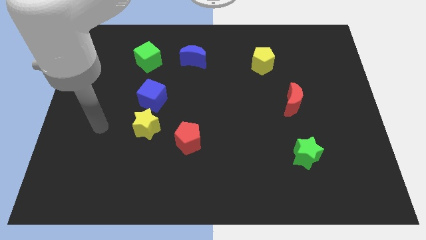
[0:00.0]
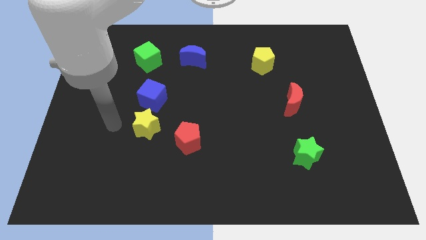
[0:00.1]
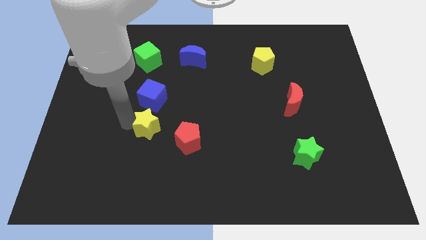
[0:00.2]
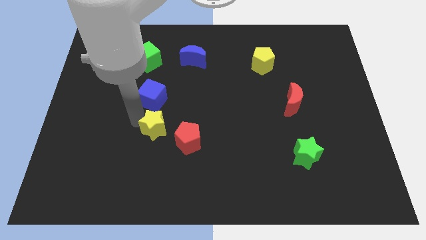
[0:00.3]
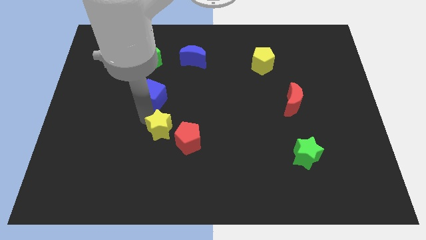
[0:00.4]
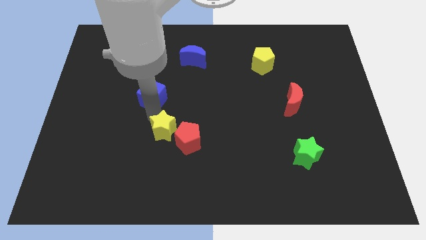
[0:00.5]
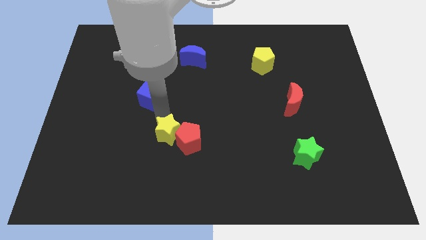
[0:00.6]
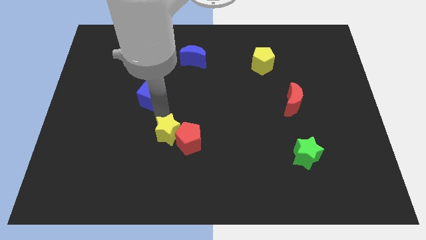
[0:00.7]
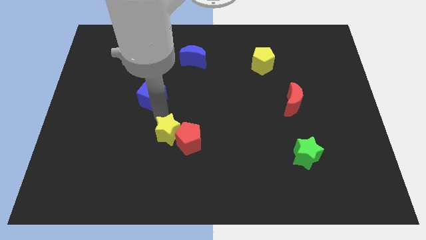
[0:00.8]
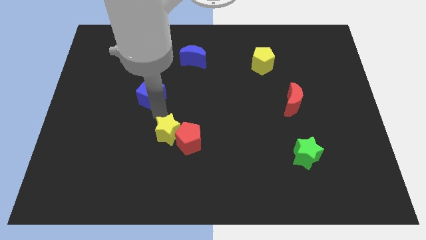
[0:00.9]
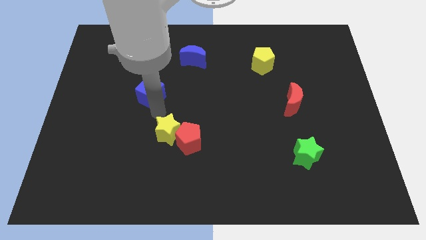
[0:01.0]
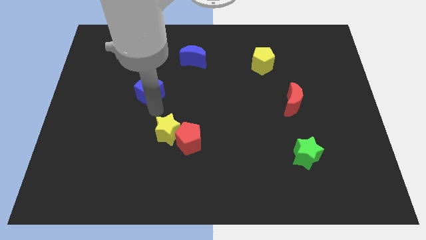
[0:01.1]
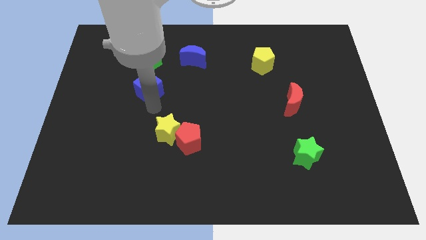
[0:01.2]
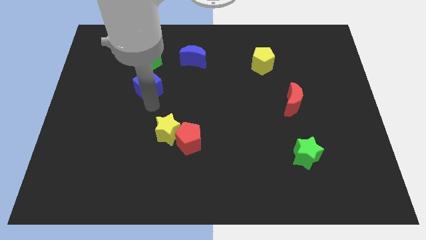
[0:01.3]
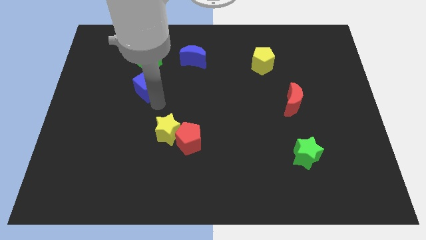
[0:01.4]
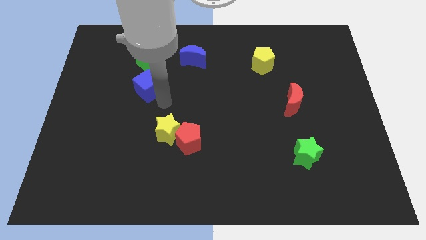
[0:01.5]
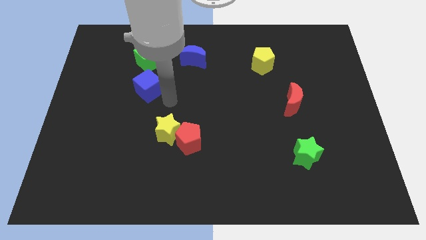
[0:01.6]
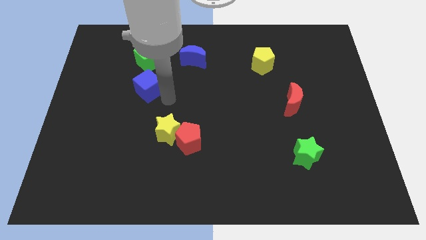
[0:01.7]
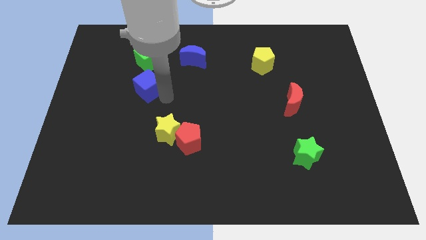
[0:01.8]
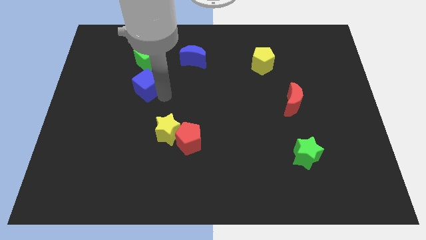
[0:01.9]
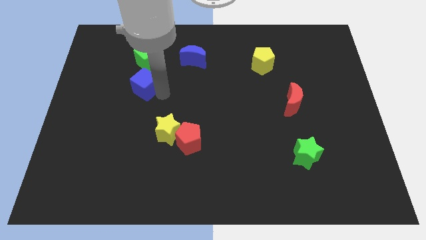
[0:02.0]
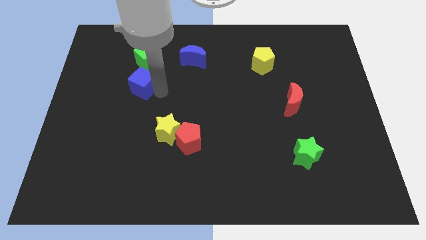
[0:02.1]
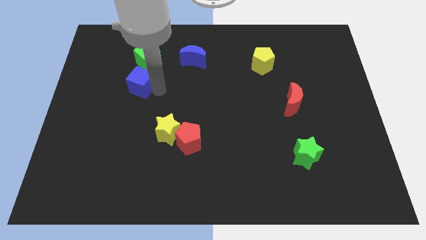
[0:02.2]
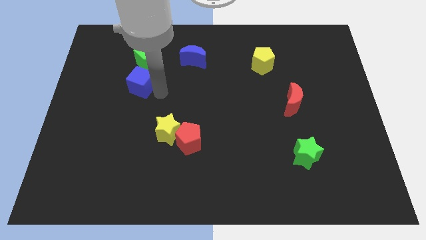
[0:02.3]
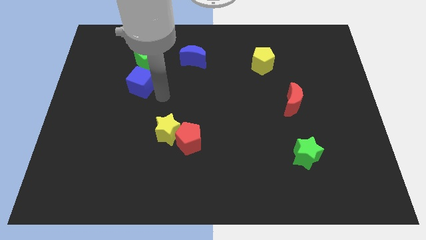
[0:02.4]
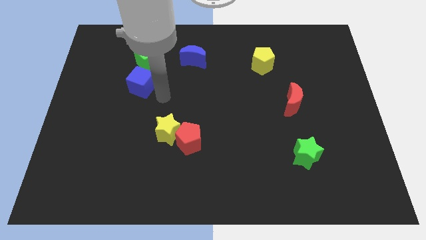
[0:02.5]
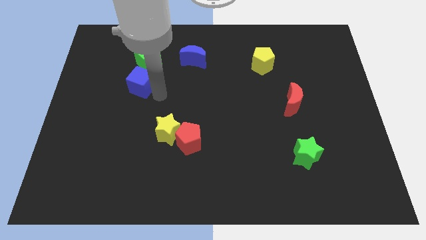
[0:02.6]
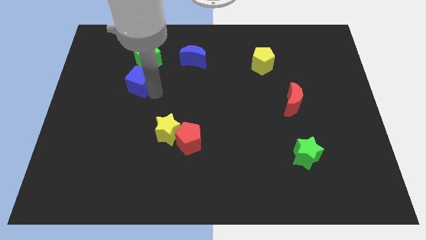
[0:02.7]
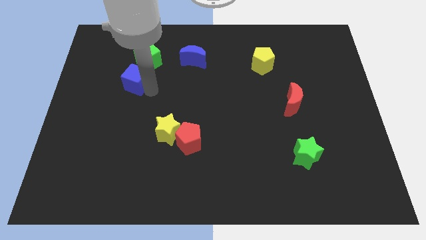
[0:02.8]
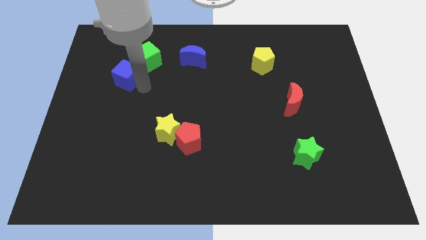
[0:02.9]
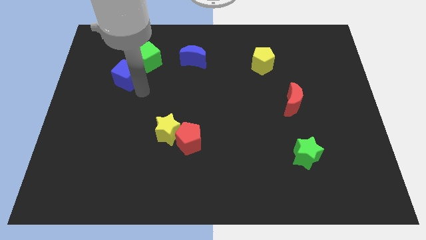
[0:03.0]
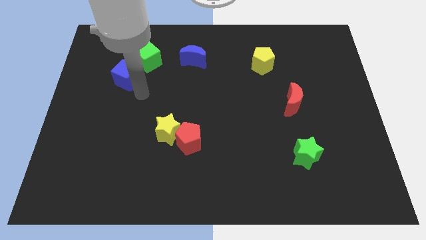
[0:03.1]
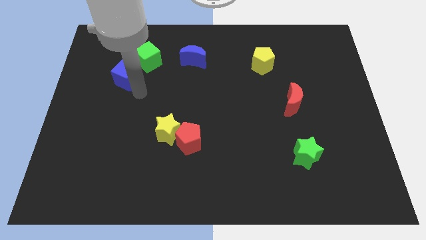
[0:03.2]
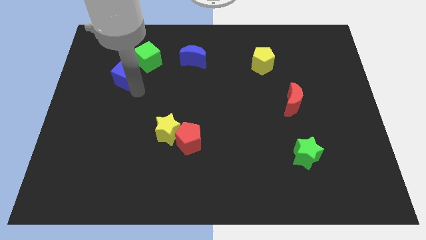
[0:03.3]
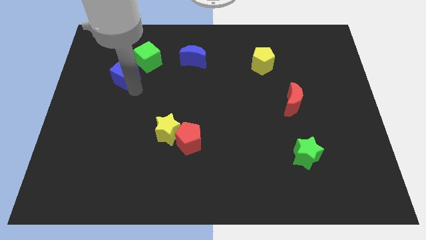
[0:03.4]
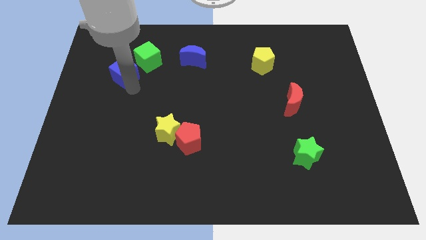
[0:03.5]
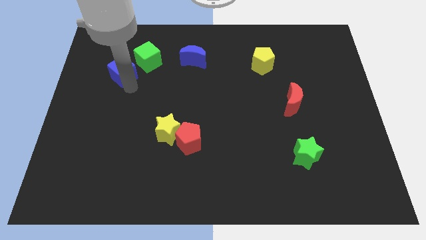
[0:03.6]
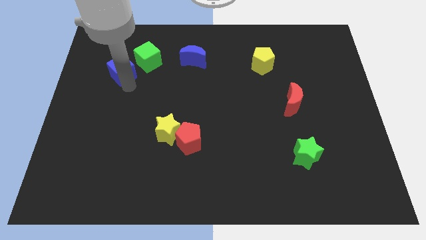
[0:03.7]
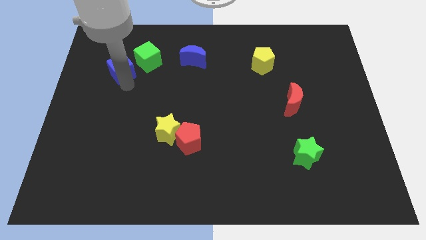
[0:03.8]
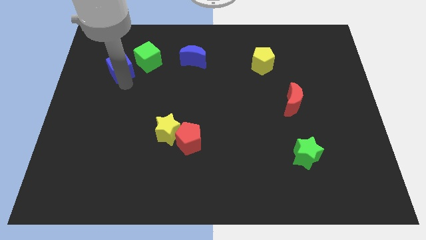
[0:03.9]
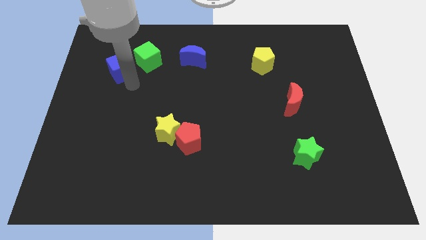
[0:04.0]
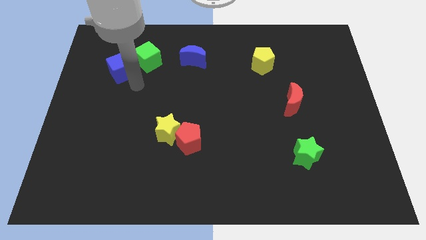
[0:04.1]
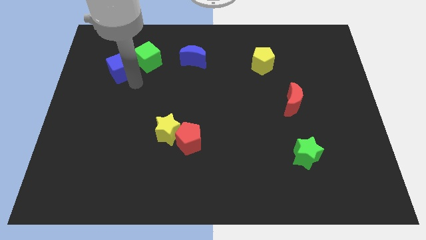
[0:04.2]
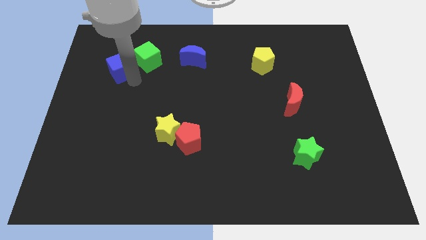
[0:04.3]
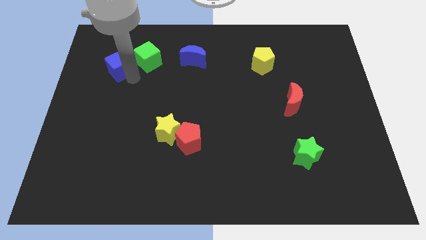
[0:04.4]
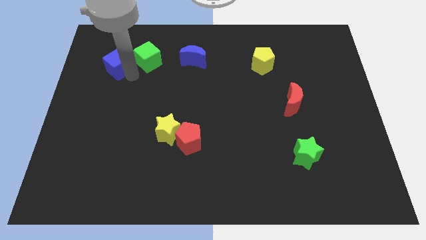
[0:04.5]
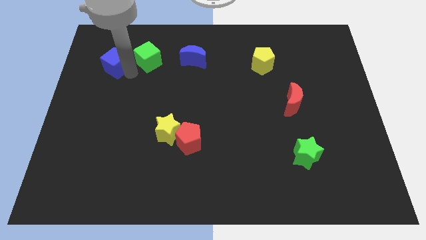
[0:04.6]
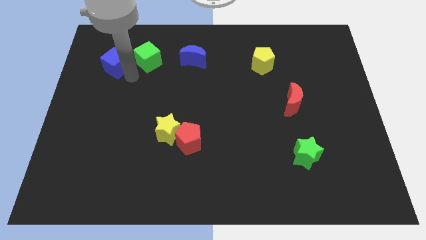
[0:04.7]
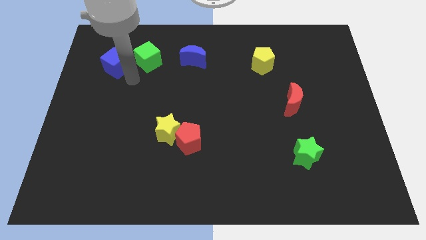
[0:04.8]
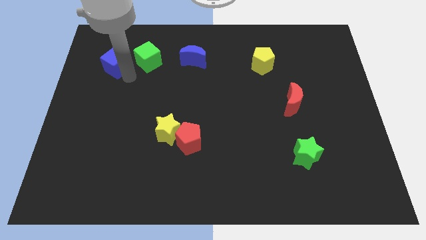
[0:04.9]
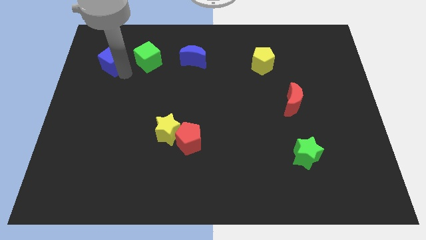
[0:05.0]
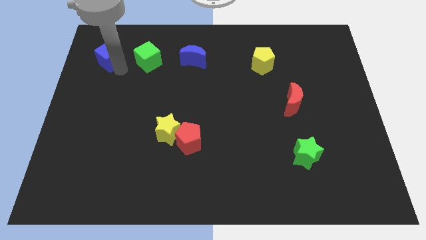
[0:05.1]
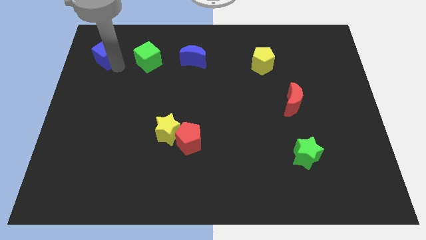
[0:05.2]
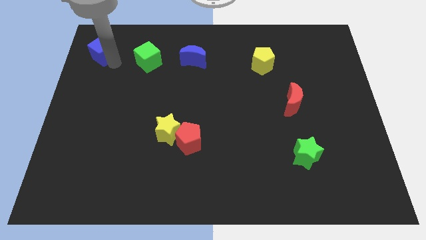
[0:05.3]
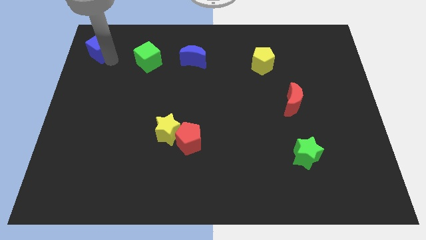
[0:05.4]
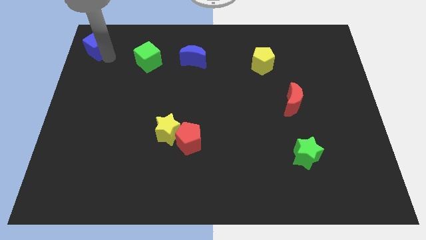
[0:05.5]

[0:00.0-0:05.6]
push the blue cube to the upper left corner

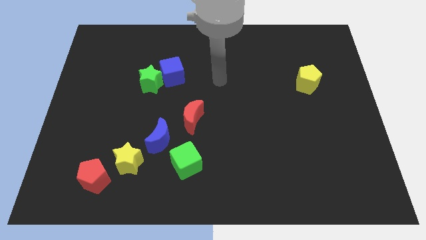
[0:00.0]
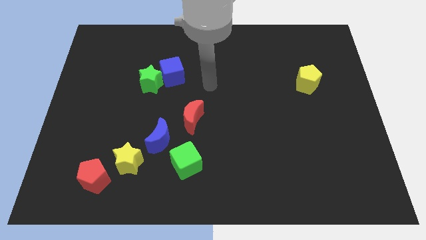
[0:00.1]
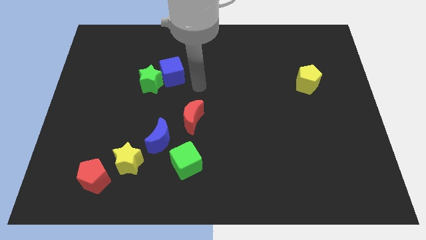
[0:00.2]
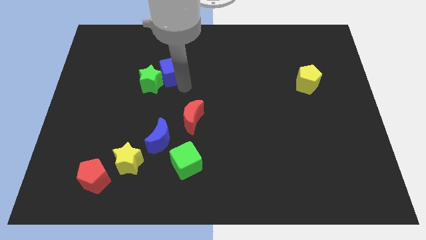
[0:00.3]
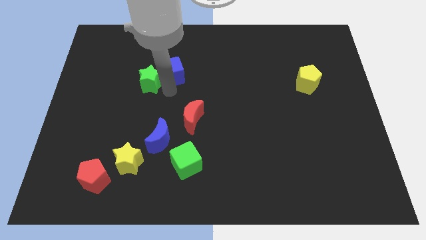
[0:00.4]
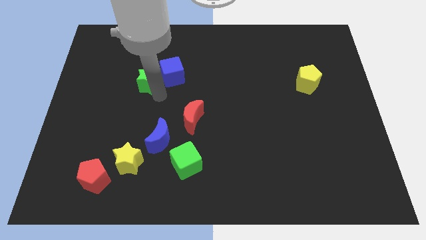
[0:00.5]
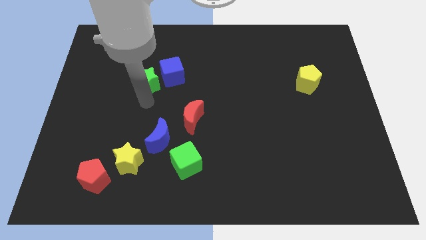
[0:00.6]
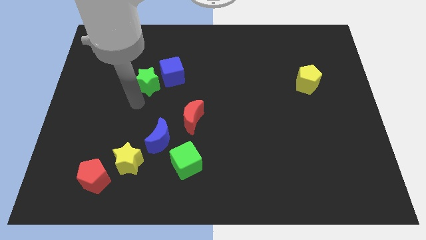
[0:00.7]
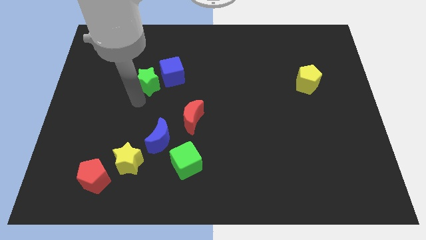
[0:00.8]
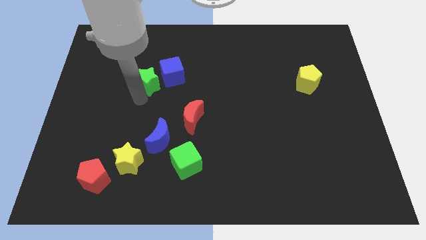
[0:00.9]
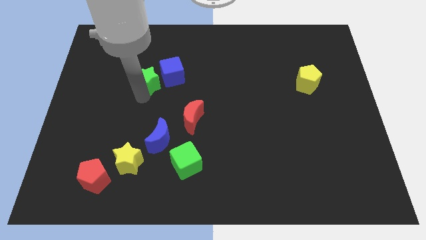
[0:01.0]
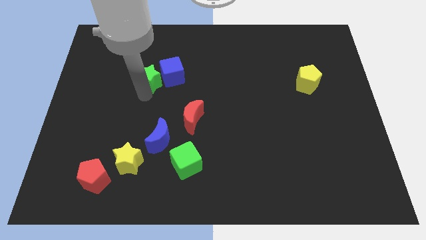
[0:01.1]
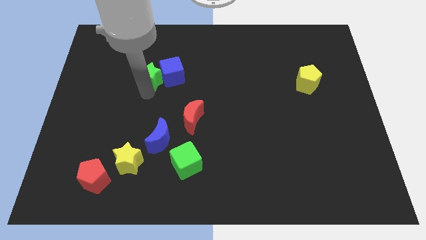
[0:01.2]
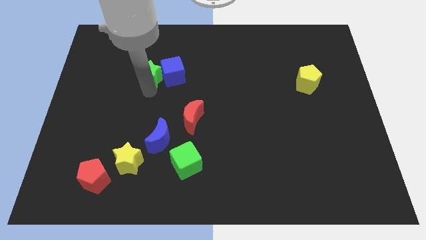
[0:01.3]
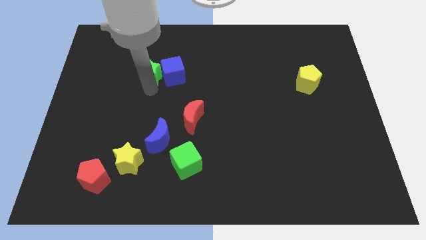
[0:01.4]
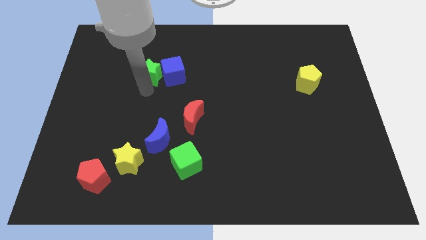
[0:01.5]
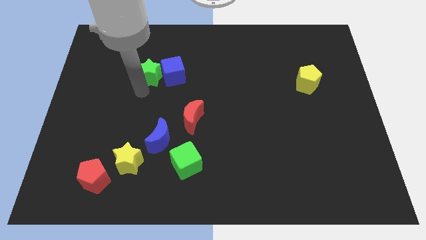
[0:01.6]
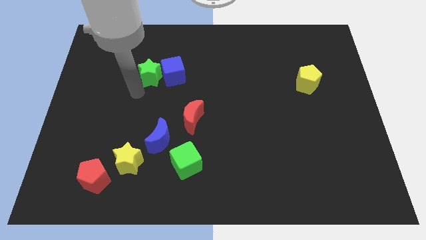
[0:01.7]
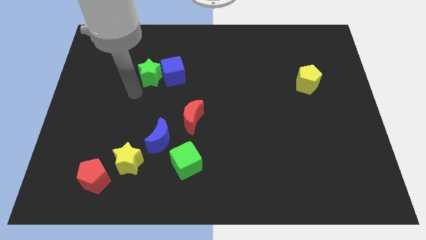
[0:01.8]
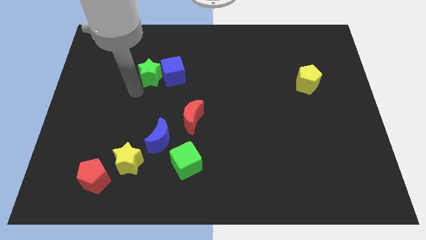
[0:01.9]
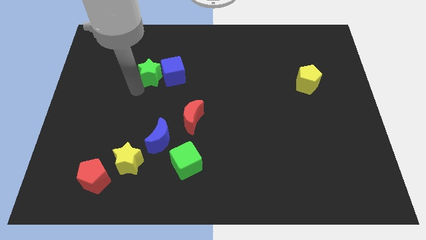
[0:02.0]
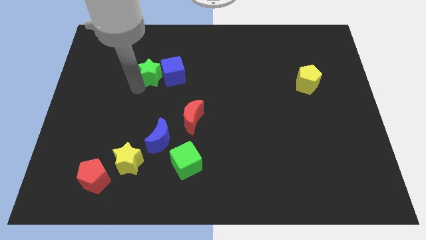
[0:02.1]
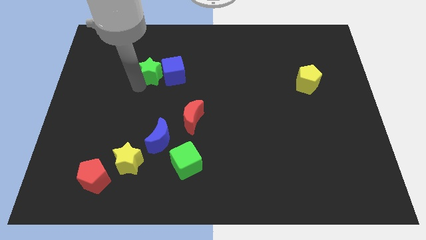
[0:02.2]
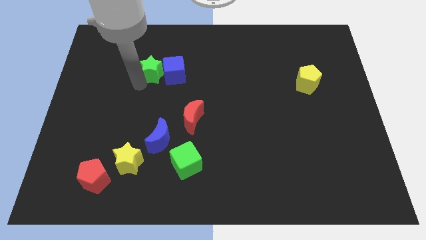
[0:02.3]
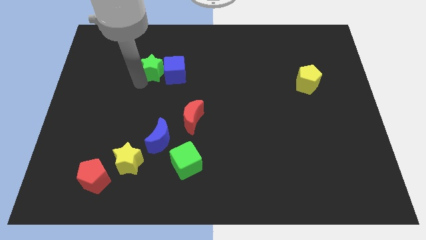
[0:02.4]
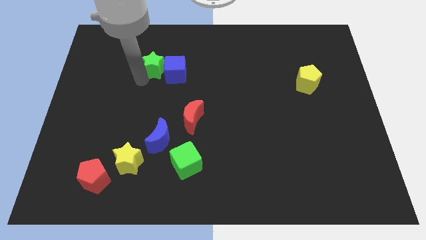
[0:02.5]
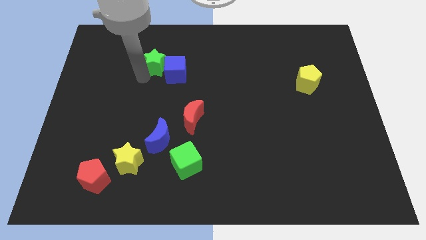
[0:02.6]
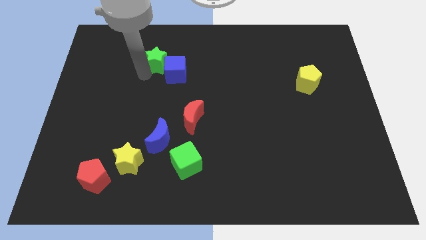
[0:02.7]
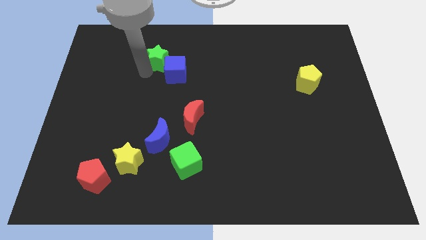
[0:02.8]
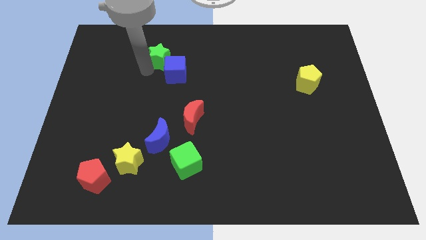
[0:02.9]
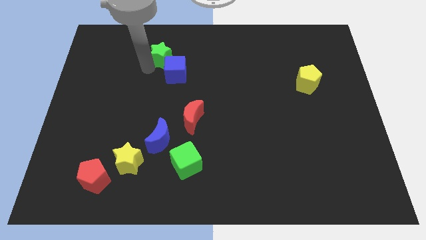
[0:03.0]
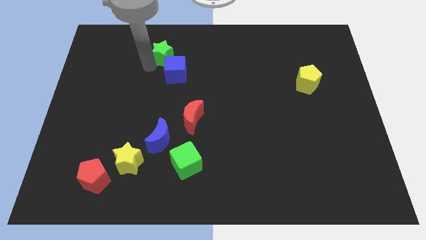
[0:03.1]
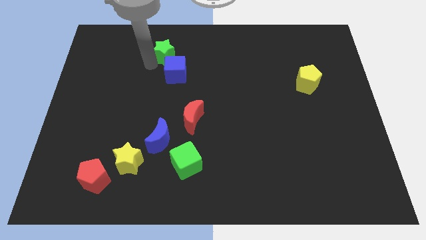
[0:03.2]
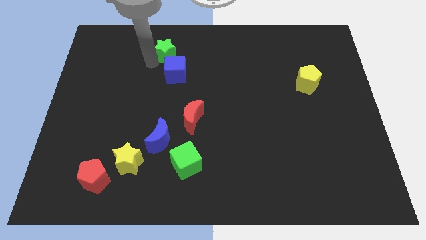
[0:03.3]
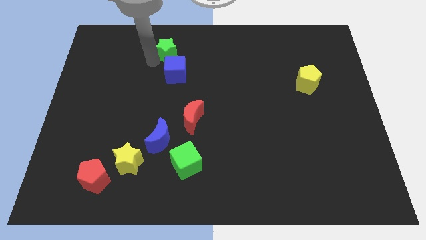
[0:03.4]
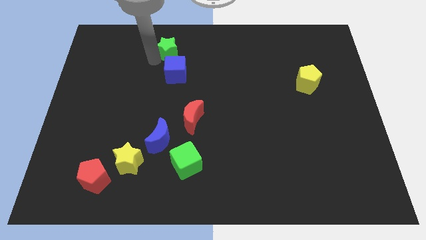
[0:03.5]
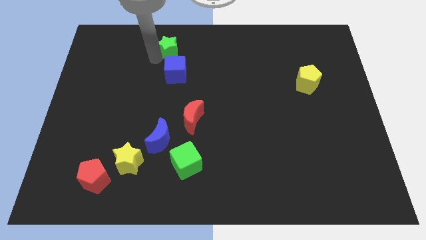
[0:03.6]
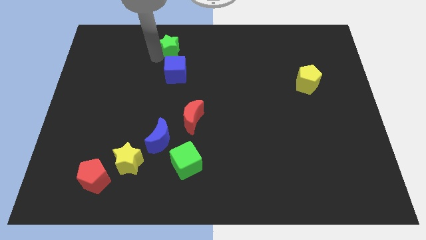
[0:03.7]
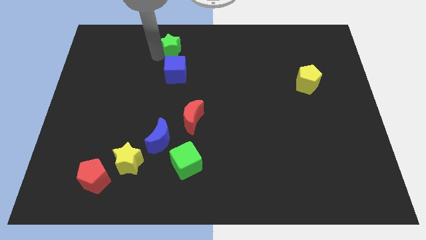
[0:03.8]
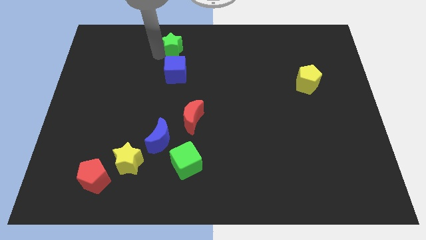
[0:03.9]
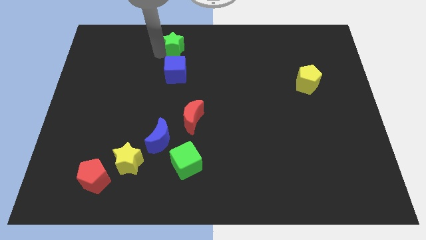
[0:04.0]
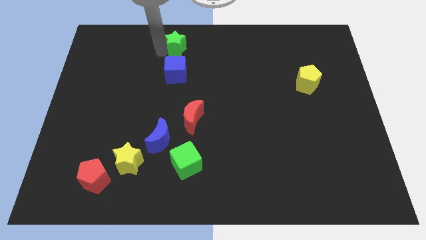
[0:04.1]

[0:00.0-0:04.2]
slide the green star to the towards your base
